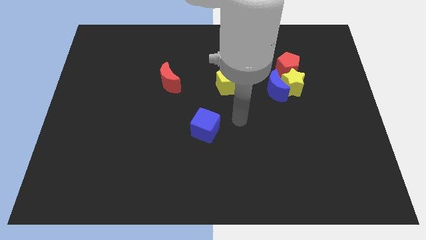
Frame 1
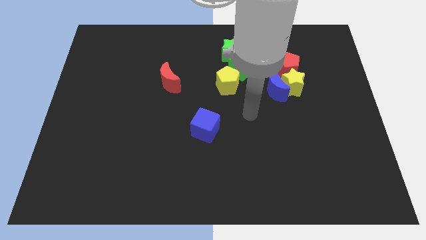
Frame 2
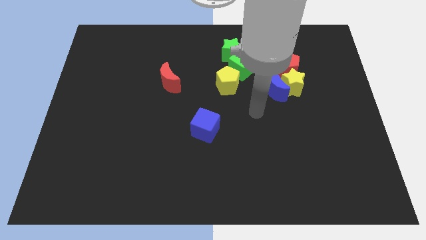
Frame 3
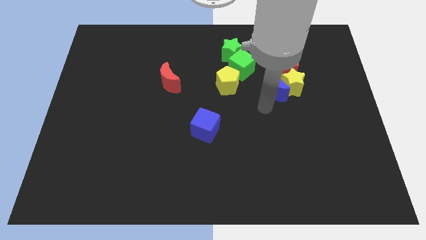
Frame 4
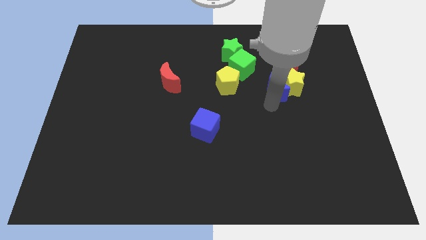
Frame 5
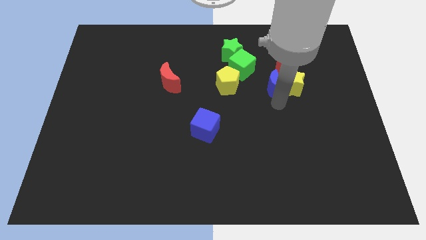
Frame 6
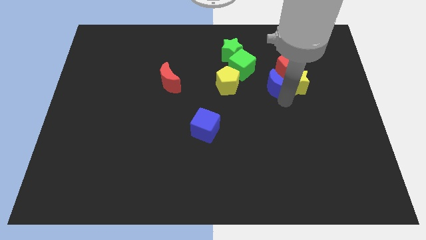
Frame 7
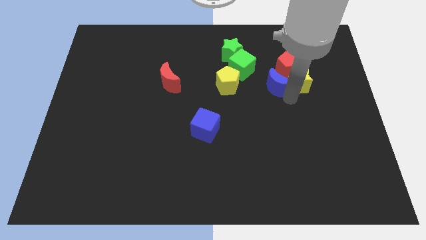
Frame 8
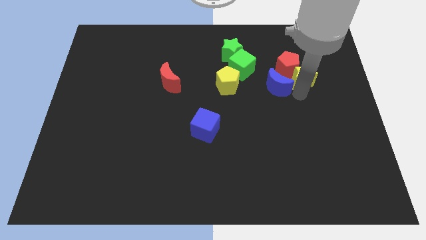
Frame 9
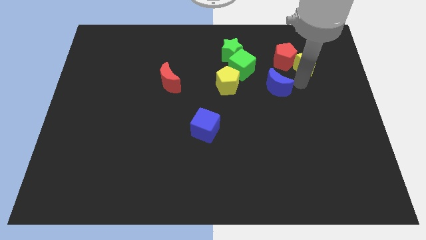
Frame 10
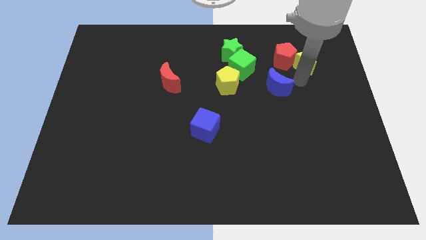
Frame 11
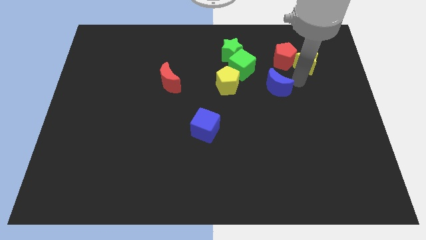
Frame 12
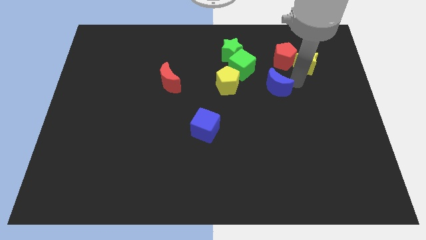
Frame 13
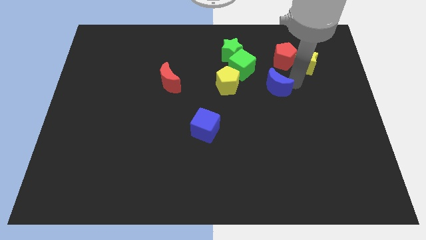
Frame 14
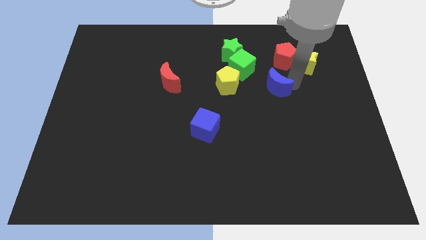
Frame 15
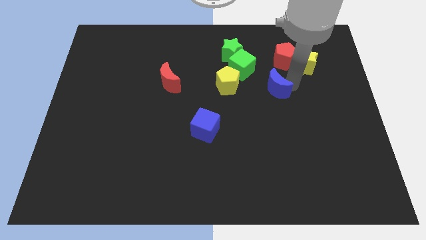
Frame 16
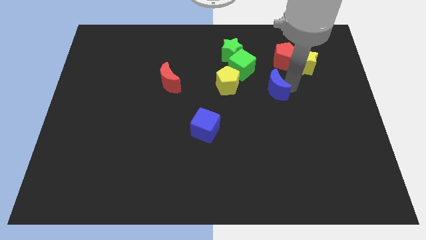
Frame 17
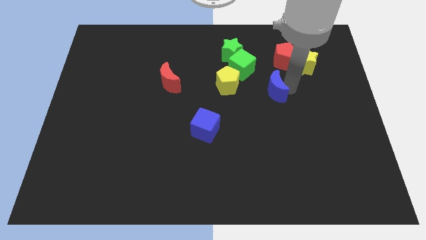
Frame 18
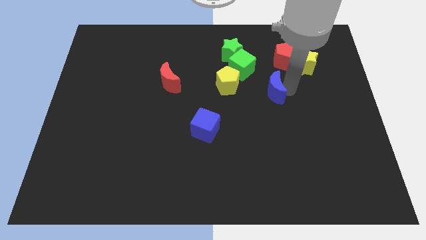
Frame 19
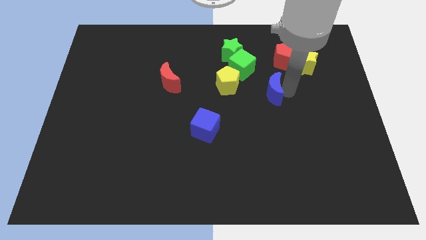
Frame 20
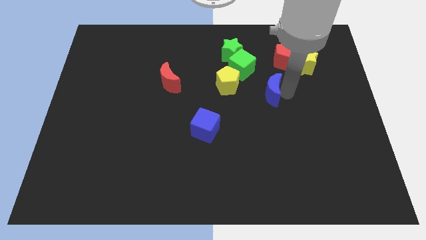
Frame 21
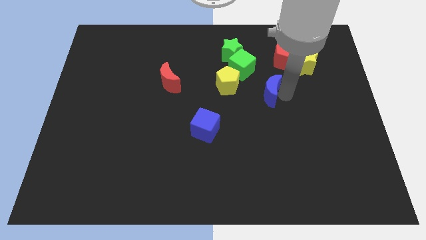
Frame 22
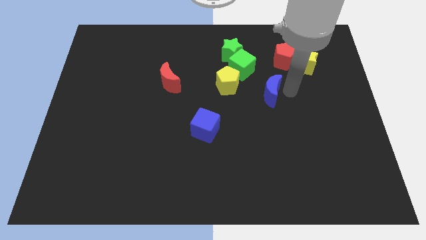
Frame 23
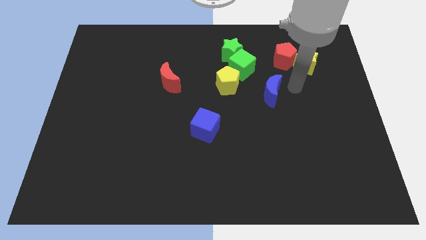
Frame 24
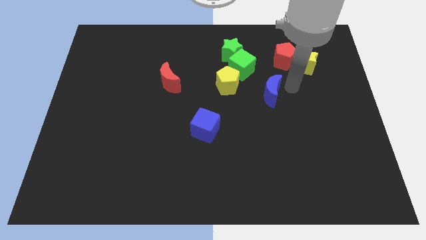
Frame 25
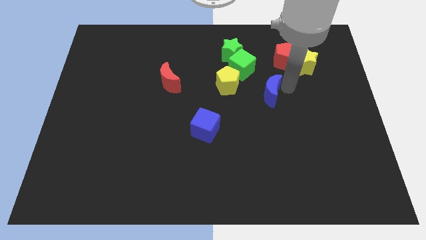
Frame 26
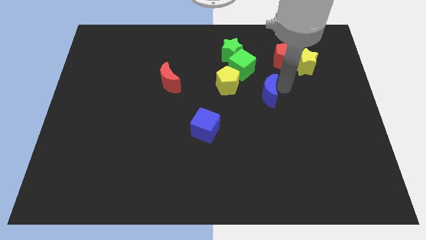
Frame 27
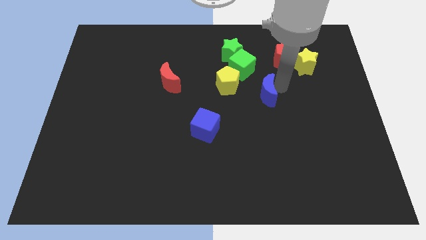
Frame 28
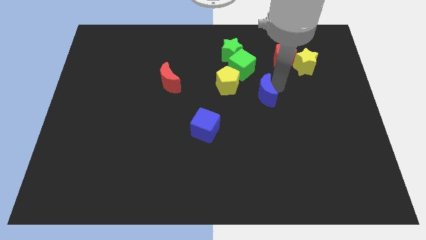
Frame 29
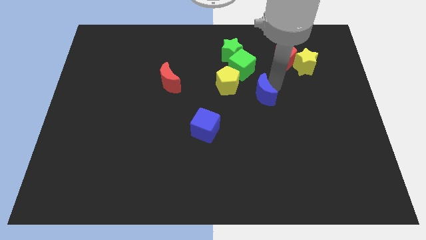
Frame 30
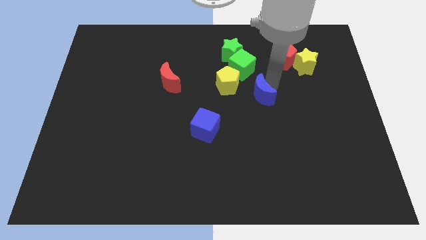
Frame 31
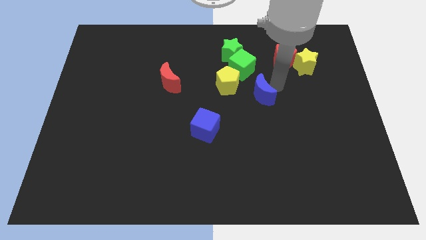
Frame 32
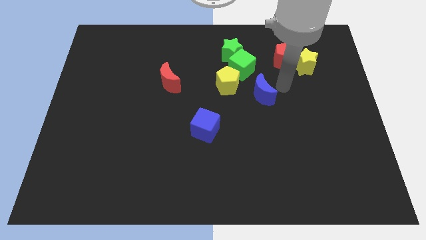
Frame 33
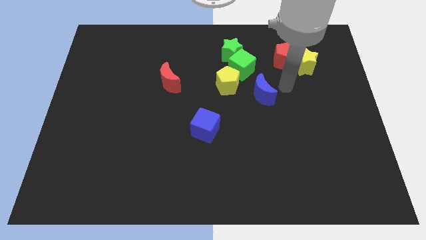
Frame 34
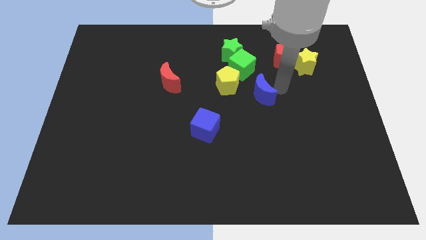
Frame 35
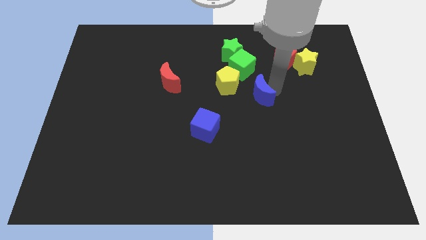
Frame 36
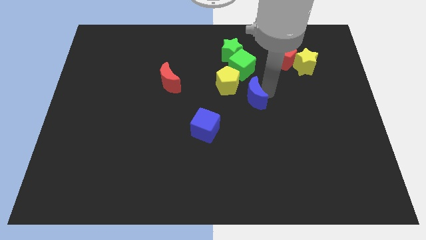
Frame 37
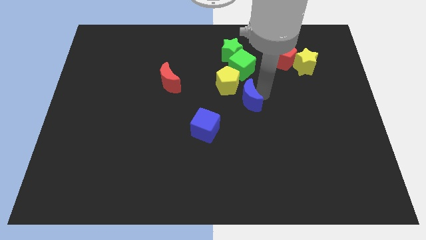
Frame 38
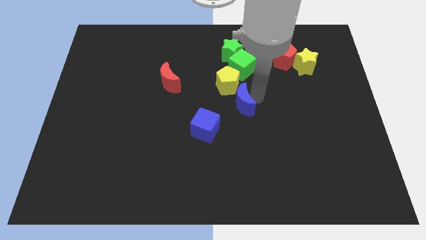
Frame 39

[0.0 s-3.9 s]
slide the blue moon left slightly

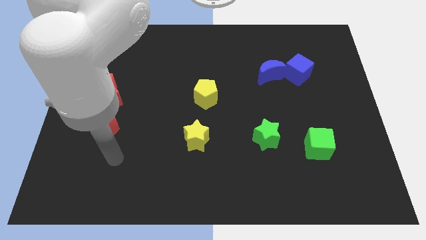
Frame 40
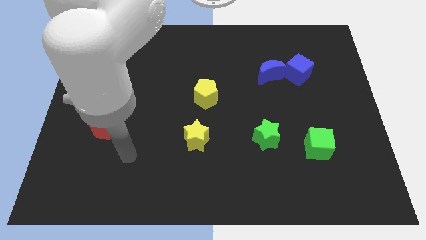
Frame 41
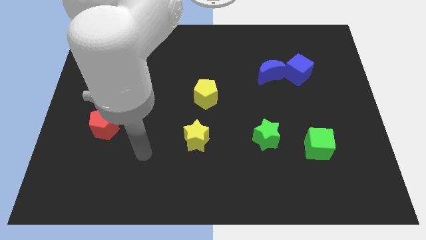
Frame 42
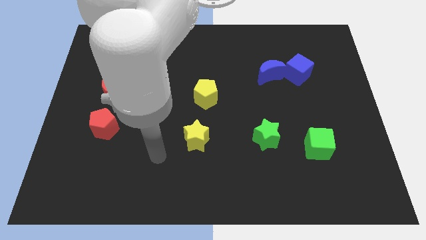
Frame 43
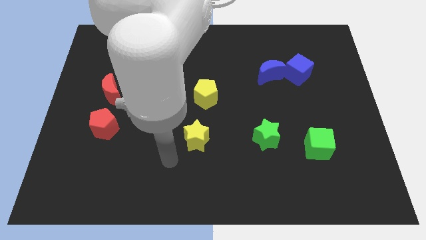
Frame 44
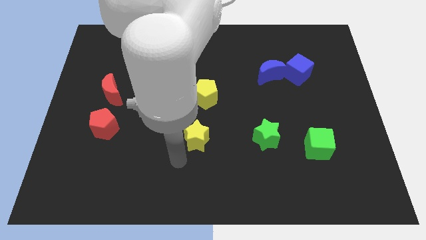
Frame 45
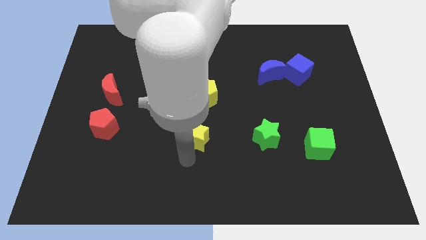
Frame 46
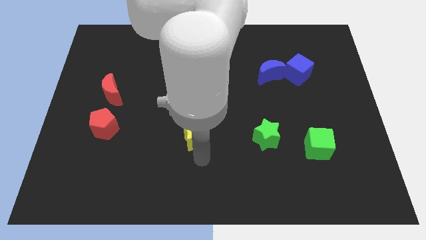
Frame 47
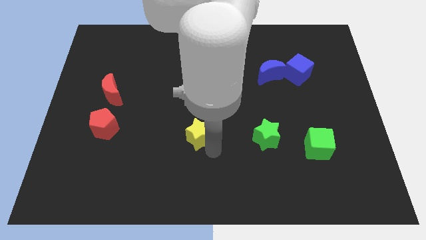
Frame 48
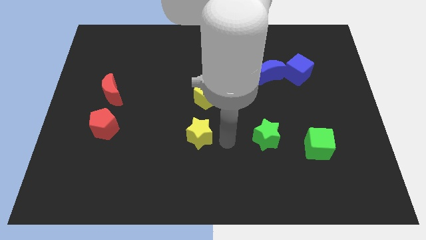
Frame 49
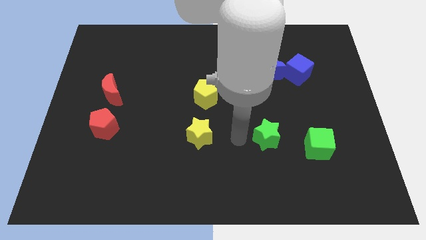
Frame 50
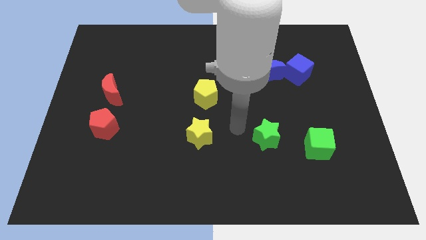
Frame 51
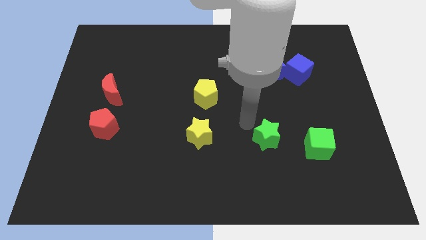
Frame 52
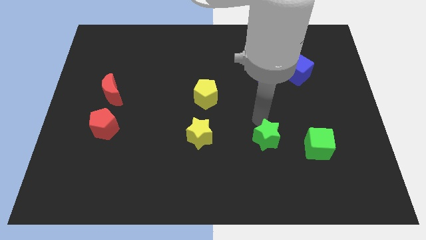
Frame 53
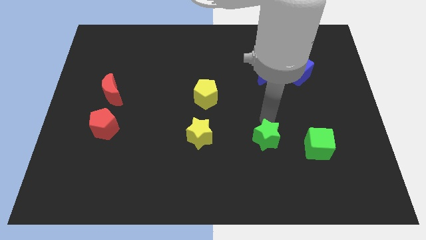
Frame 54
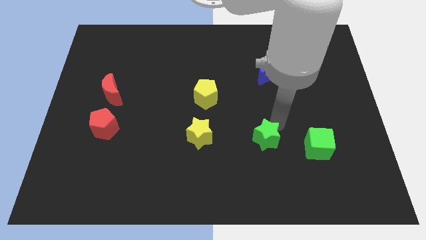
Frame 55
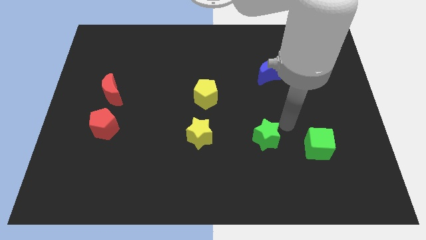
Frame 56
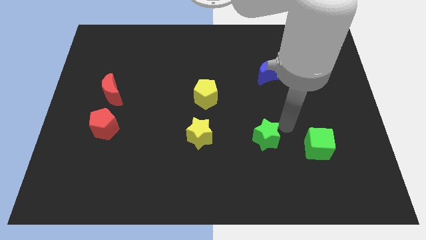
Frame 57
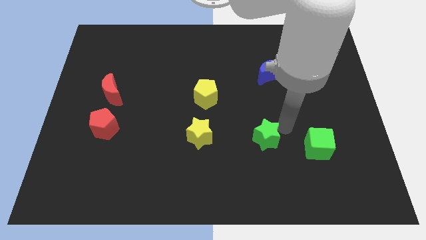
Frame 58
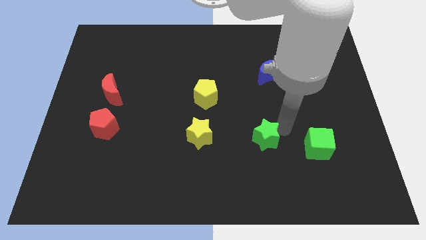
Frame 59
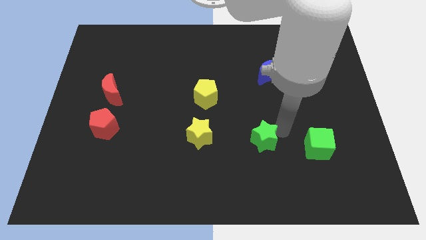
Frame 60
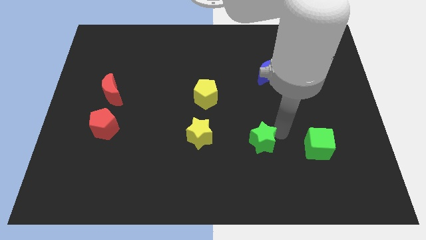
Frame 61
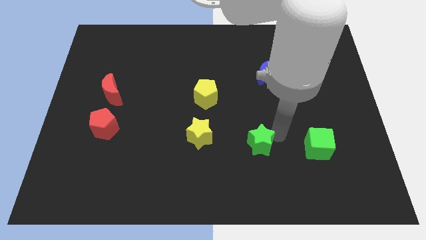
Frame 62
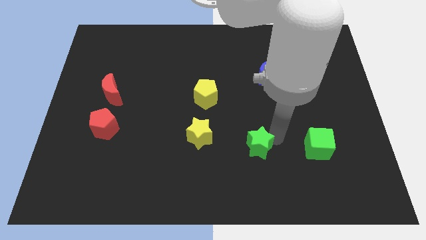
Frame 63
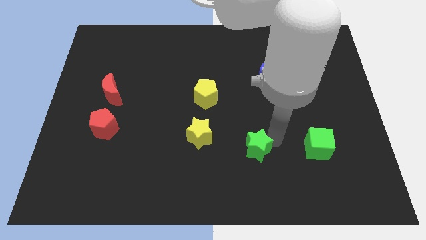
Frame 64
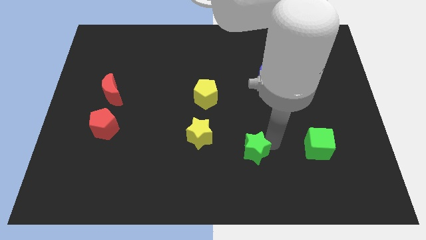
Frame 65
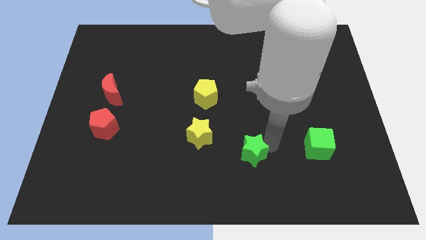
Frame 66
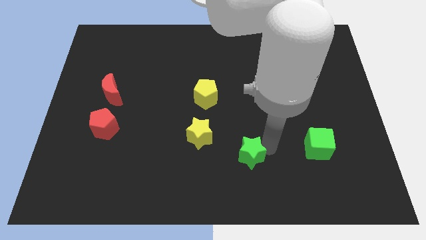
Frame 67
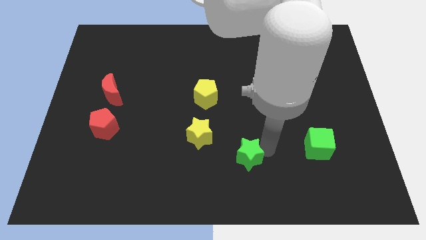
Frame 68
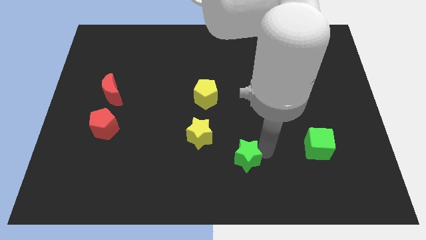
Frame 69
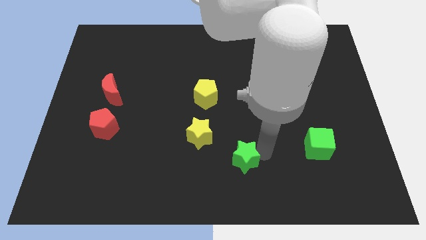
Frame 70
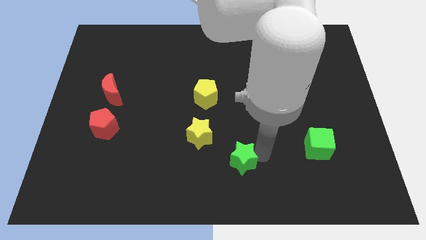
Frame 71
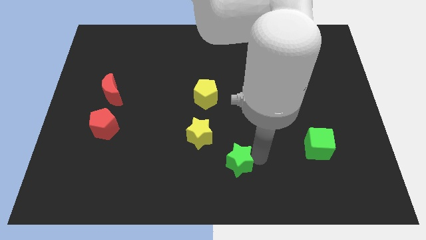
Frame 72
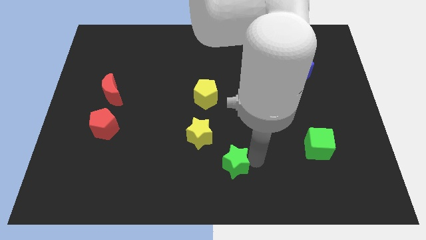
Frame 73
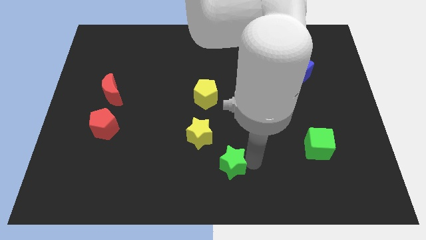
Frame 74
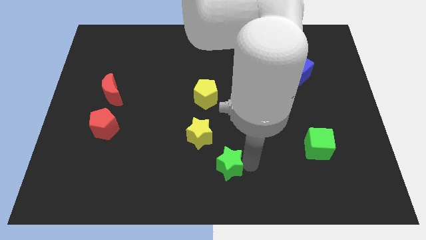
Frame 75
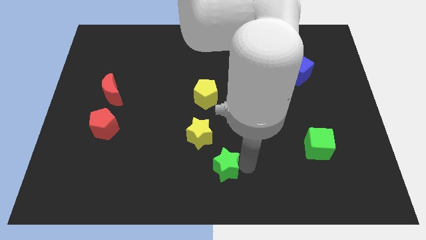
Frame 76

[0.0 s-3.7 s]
slightly move the green star to the left
